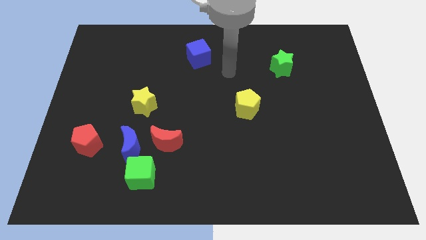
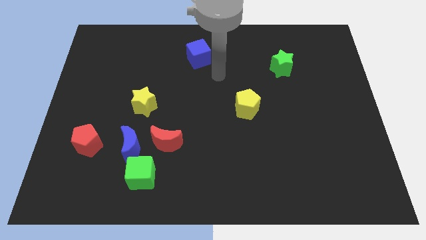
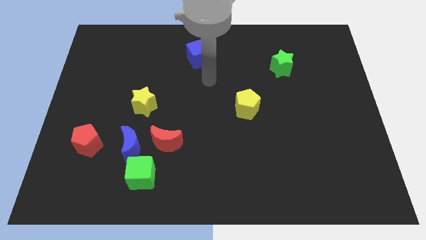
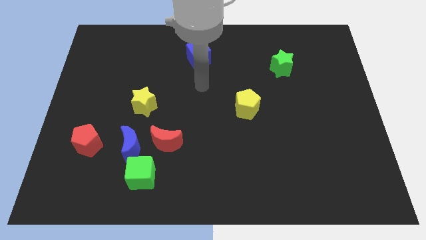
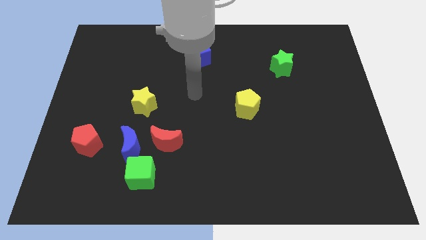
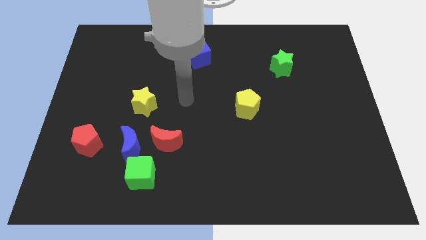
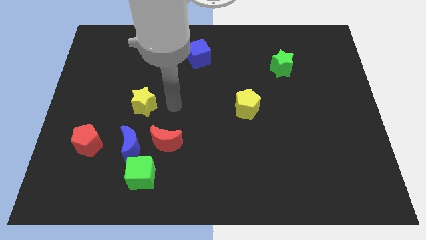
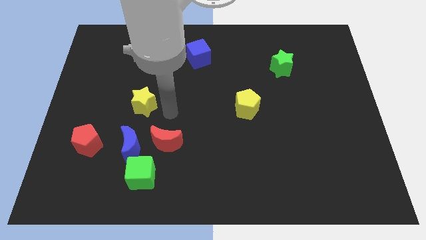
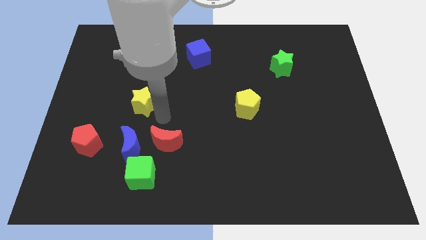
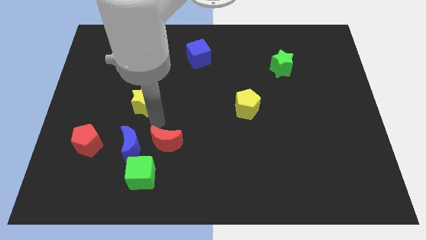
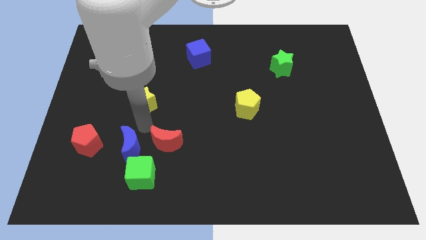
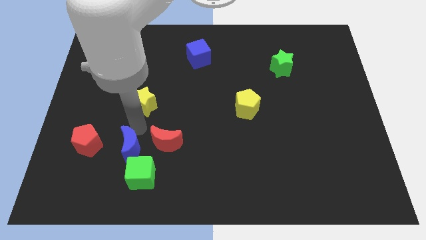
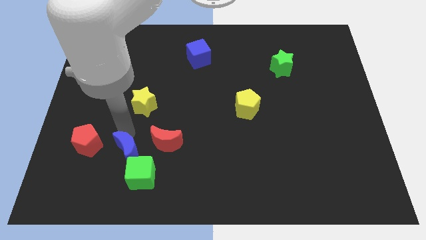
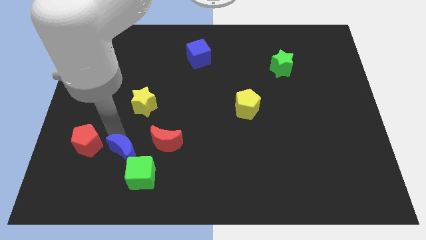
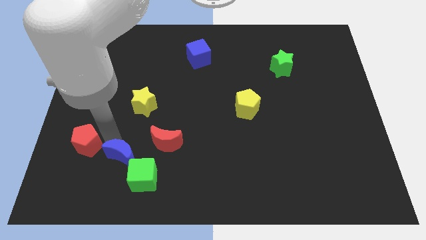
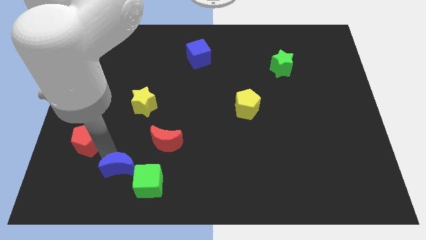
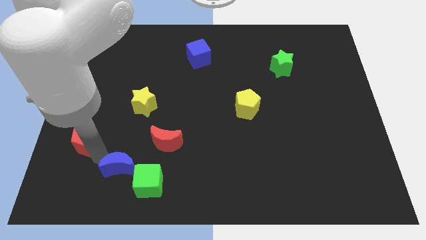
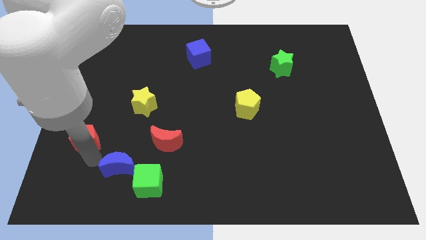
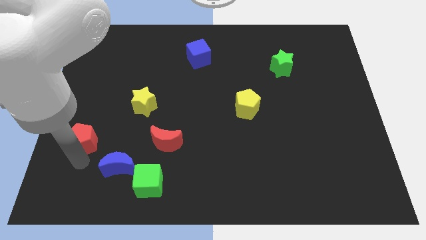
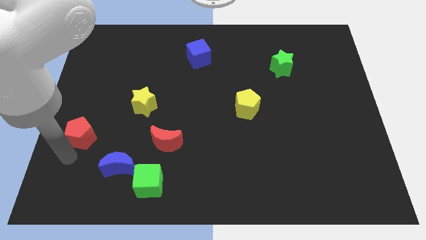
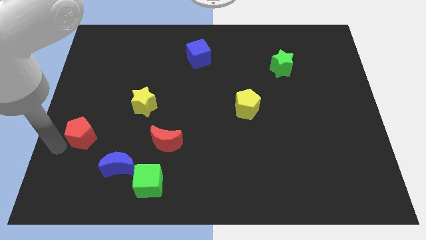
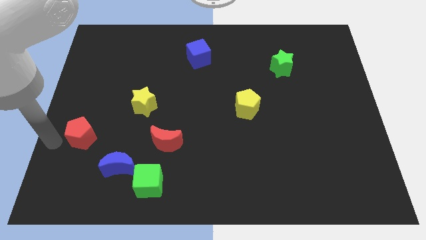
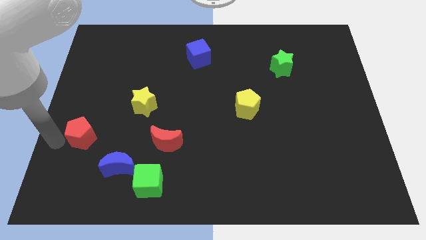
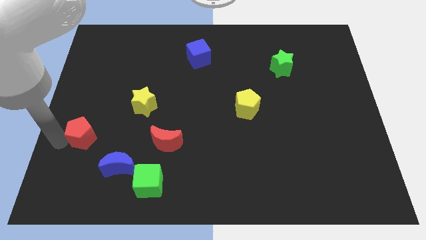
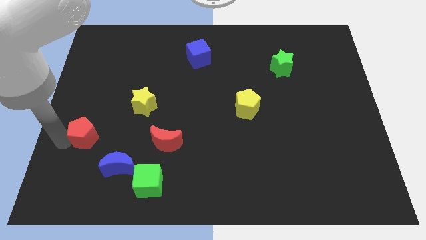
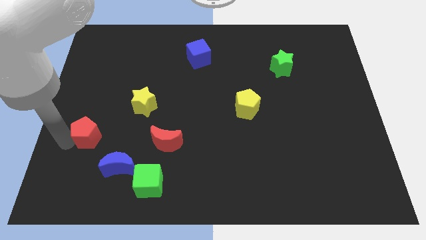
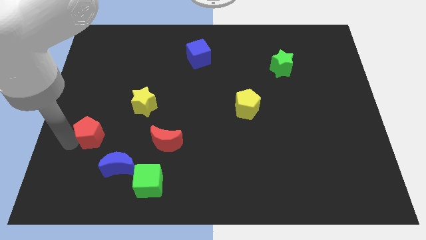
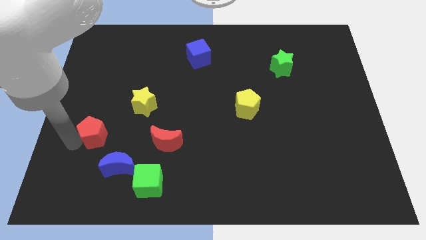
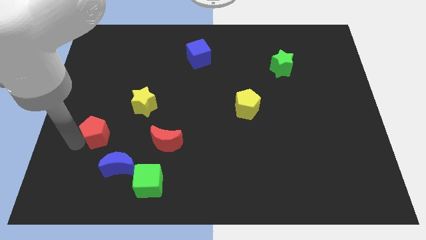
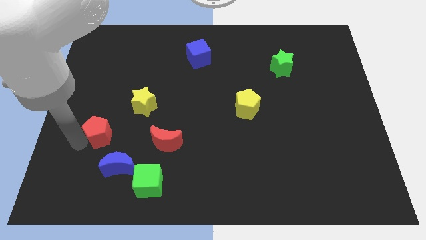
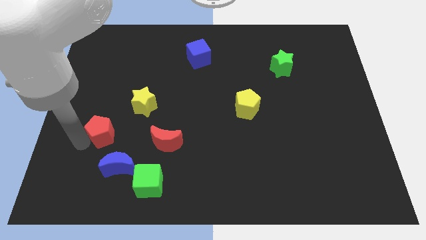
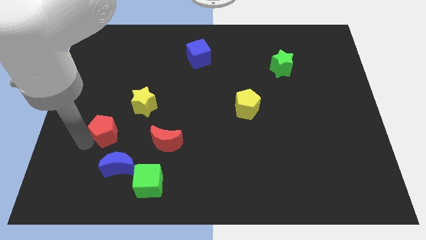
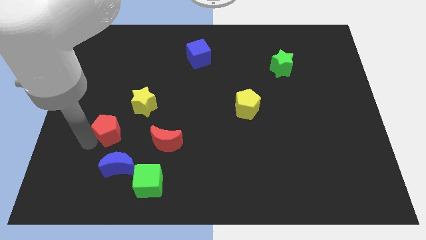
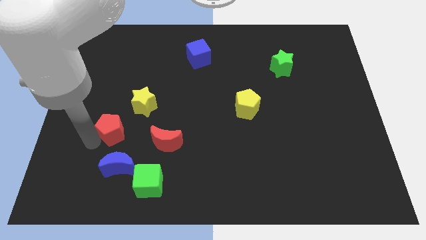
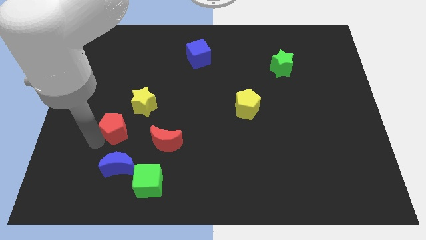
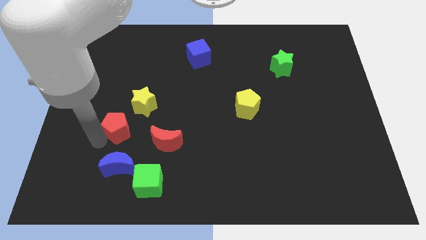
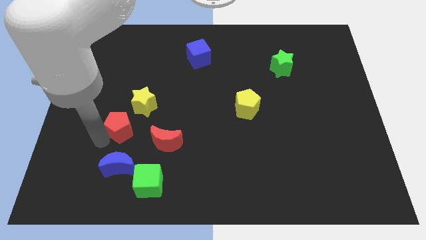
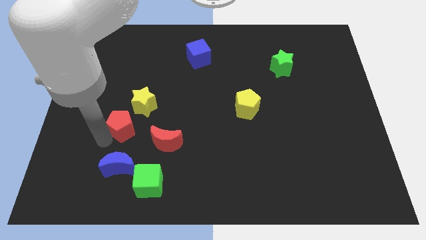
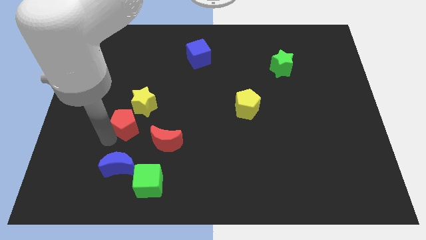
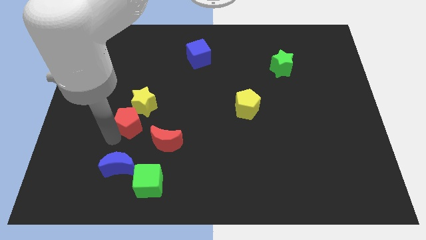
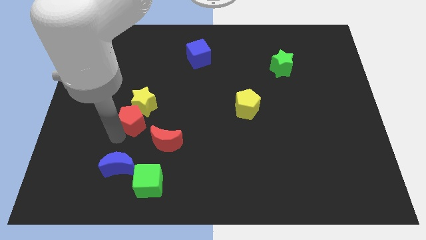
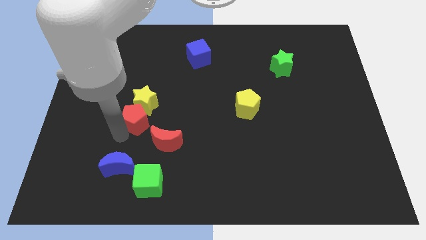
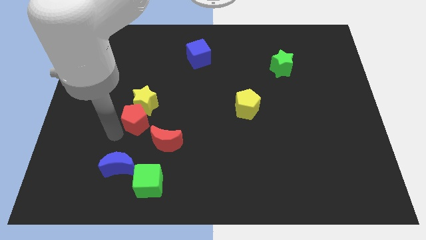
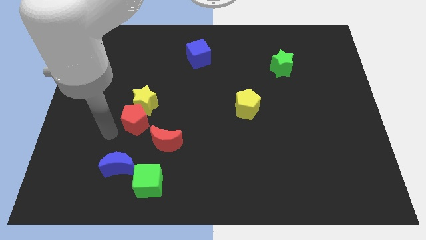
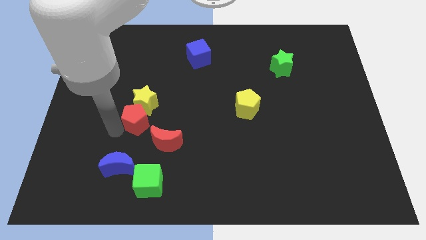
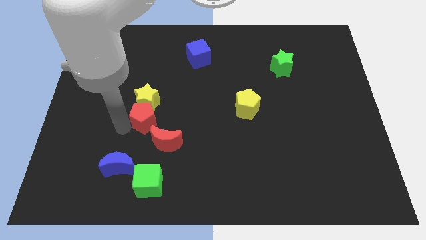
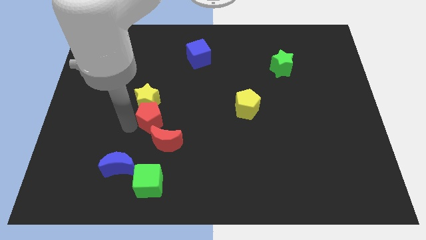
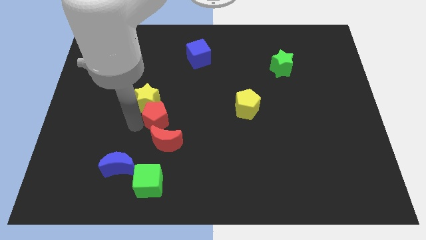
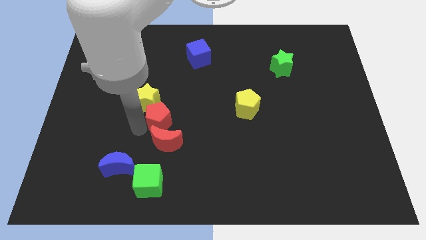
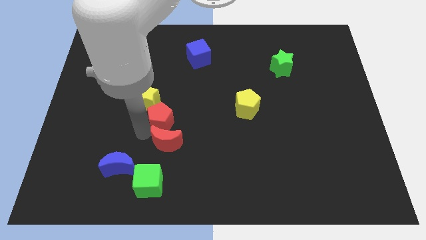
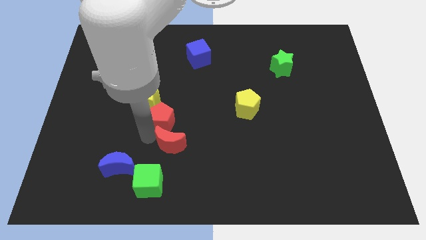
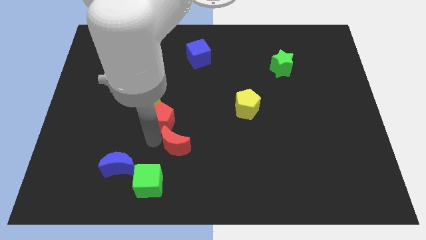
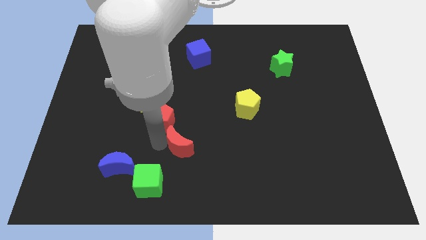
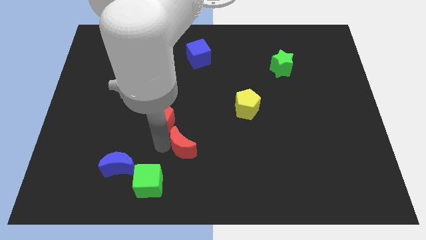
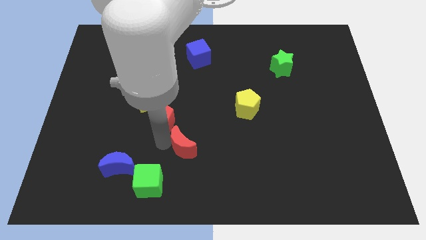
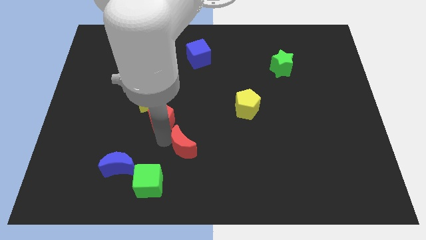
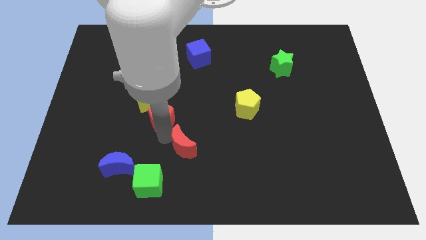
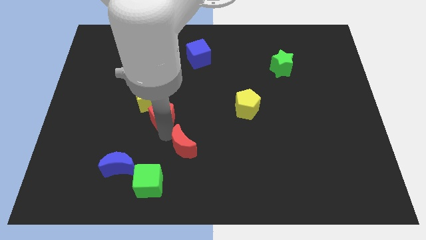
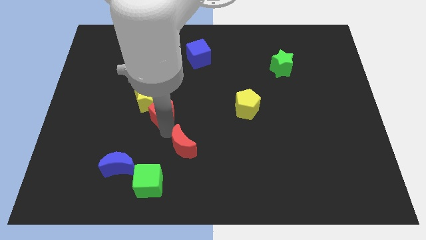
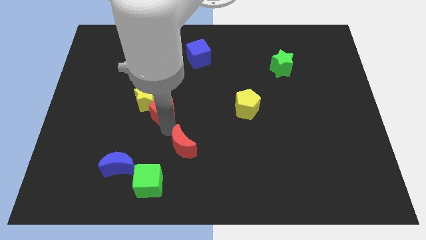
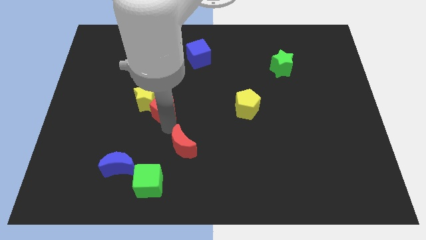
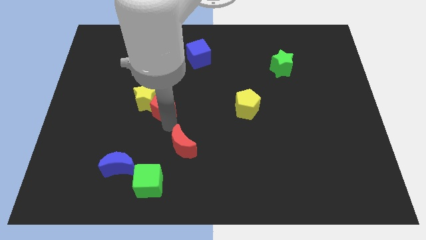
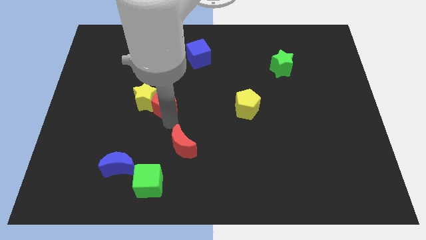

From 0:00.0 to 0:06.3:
move the red pentagon to the top right of the yellow star
